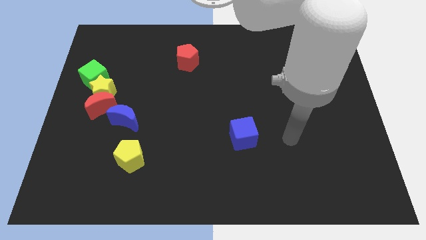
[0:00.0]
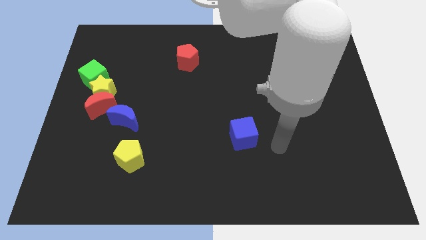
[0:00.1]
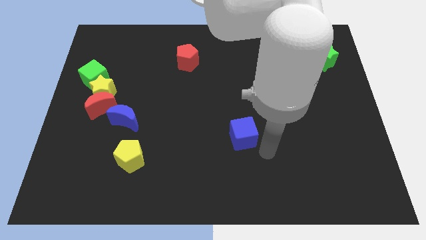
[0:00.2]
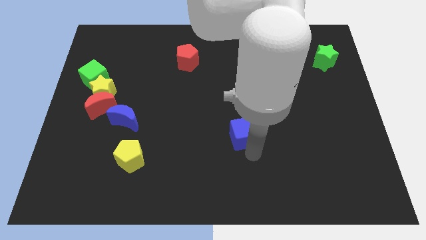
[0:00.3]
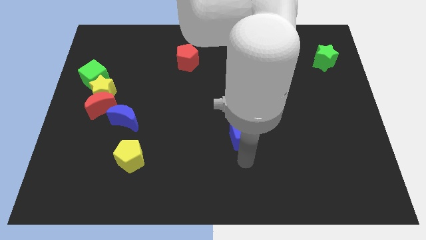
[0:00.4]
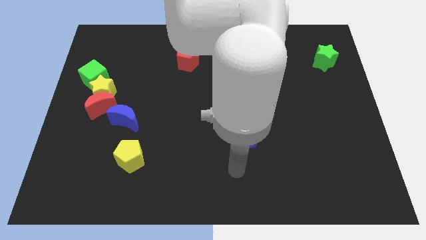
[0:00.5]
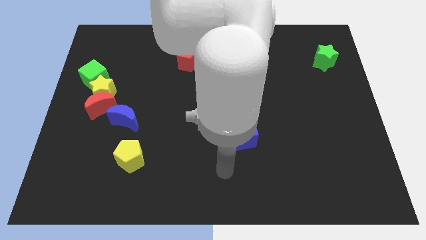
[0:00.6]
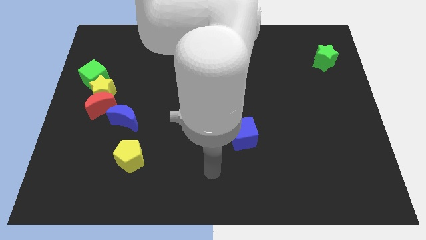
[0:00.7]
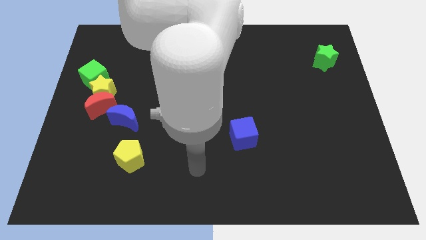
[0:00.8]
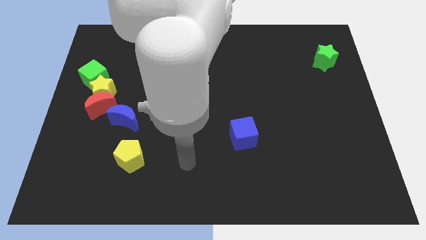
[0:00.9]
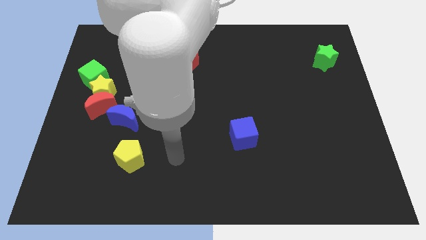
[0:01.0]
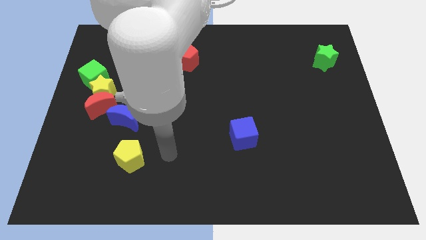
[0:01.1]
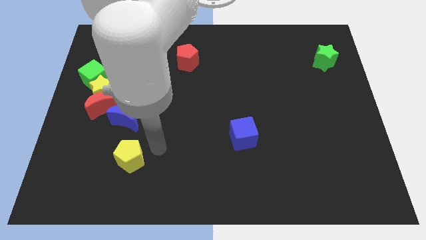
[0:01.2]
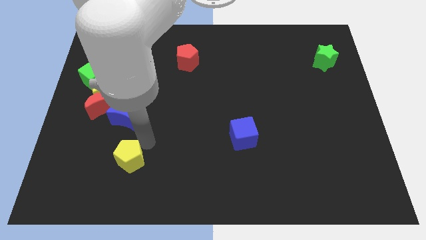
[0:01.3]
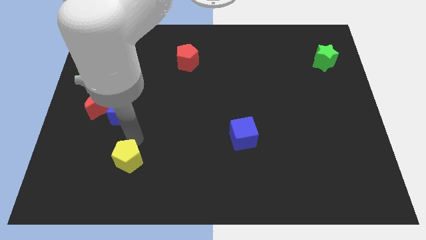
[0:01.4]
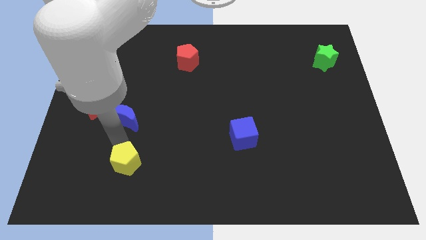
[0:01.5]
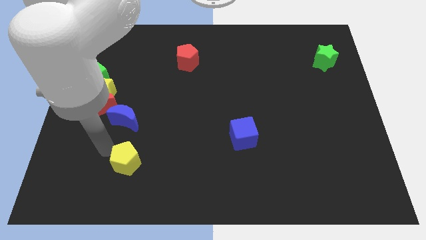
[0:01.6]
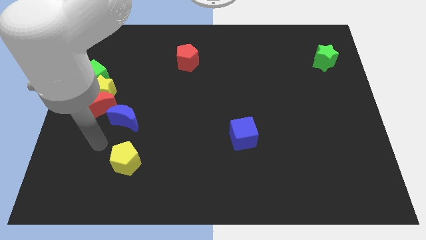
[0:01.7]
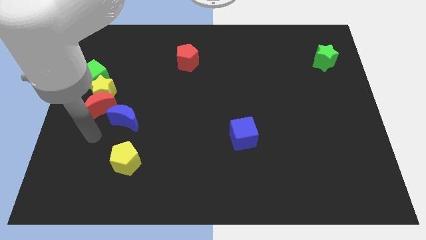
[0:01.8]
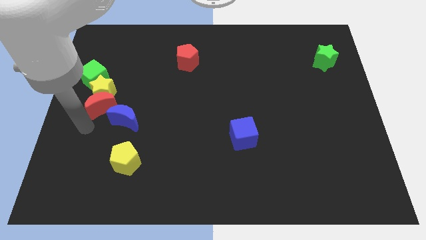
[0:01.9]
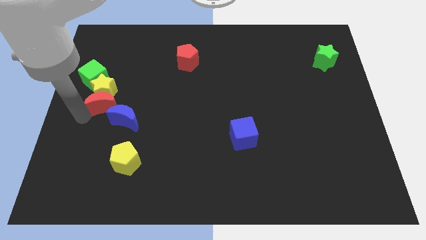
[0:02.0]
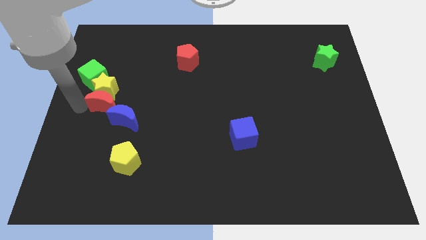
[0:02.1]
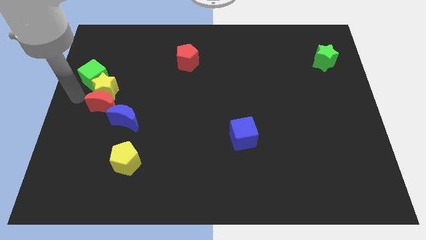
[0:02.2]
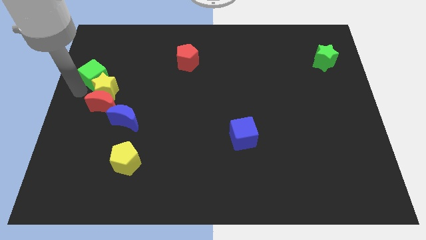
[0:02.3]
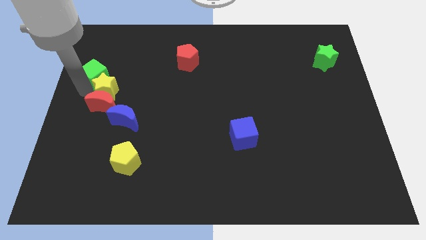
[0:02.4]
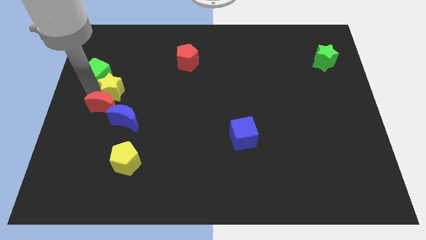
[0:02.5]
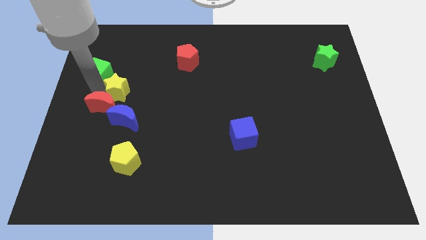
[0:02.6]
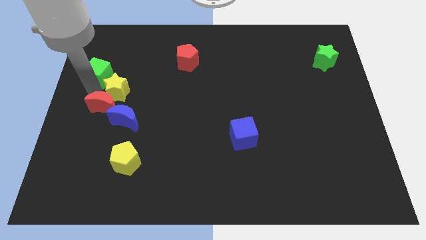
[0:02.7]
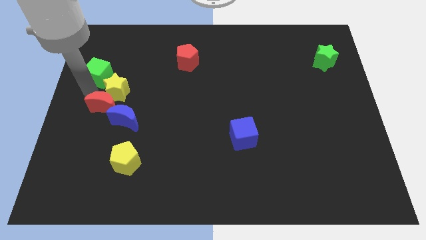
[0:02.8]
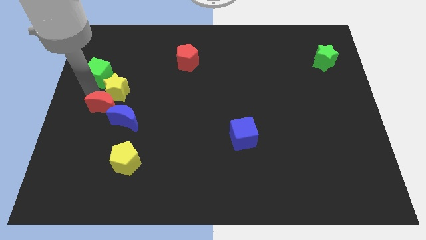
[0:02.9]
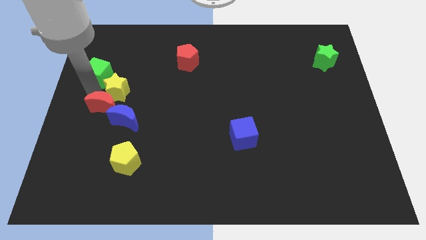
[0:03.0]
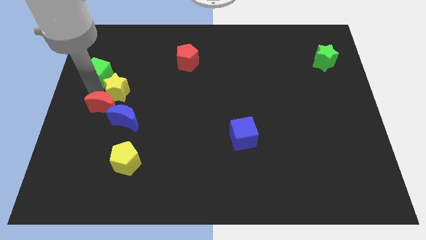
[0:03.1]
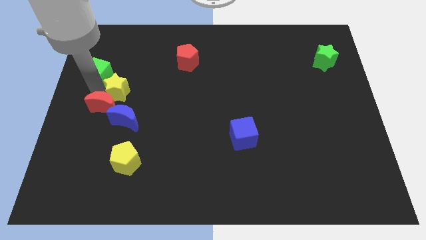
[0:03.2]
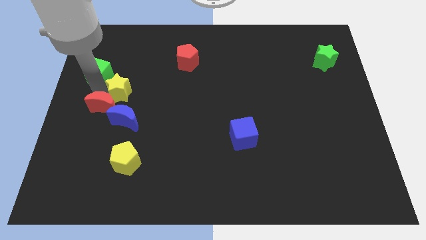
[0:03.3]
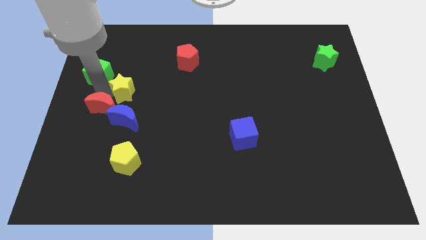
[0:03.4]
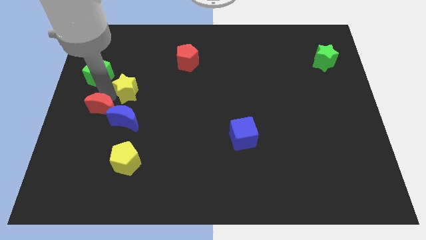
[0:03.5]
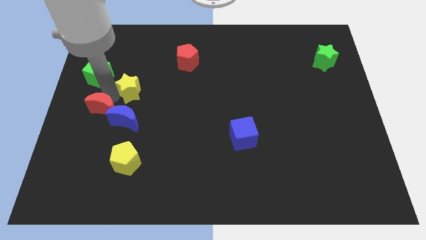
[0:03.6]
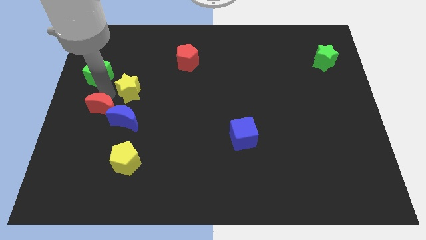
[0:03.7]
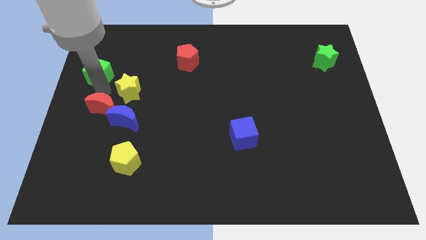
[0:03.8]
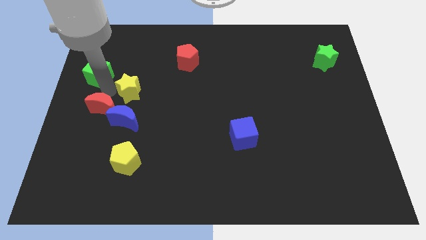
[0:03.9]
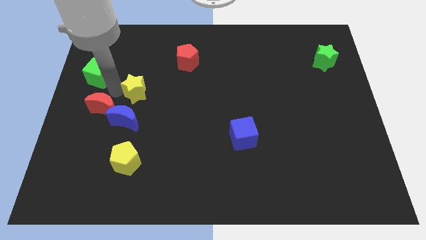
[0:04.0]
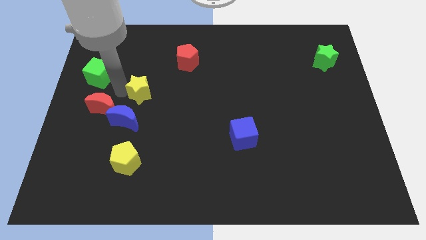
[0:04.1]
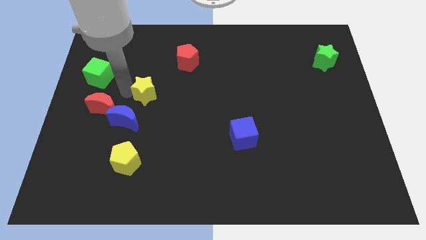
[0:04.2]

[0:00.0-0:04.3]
separate the yellow star from the red moon and green cube

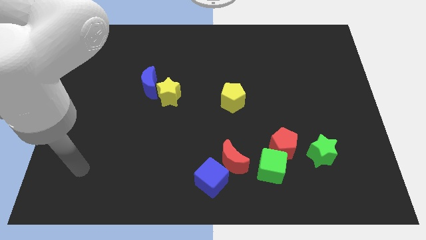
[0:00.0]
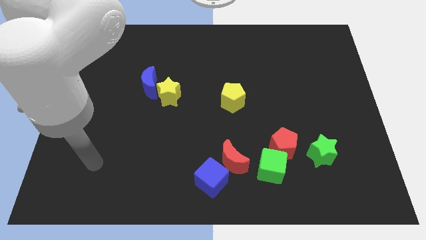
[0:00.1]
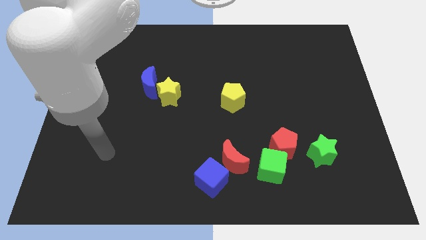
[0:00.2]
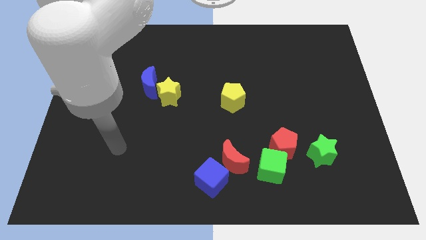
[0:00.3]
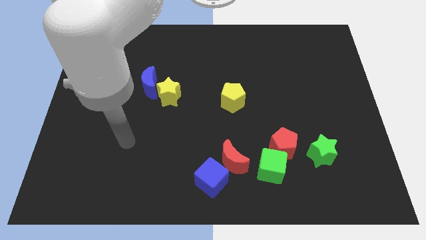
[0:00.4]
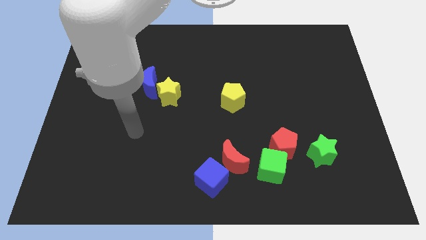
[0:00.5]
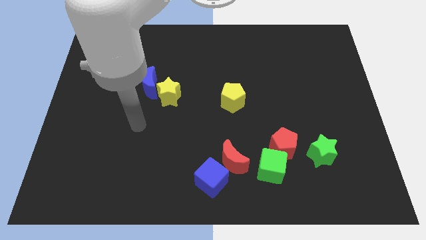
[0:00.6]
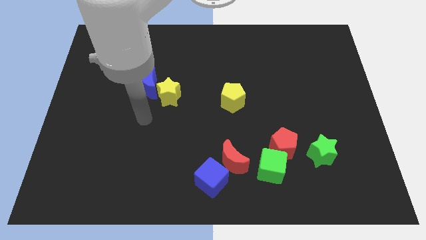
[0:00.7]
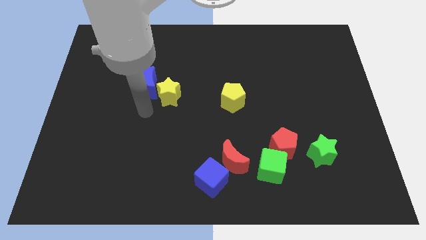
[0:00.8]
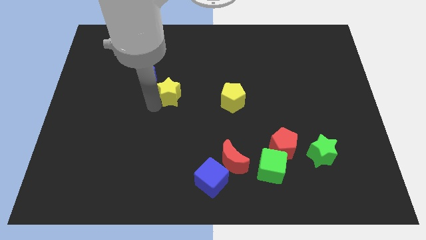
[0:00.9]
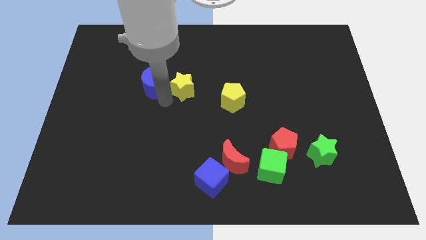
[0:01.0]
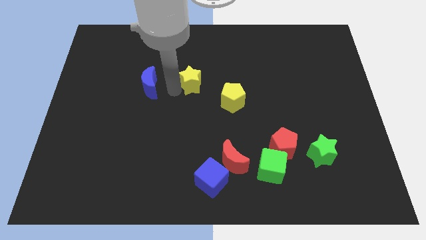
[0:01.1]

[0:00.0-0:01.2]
move the blue moon away from the yellow star

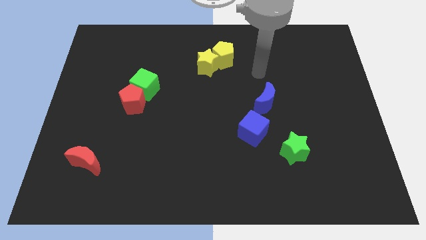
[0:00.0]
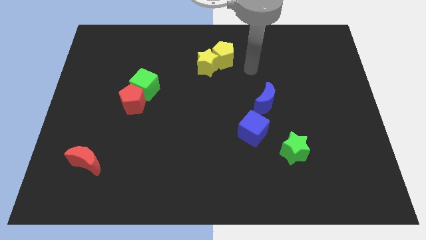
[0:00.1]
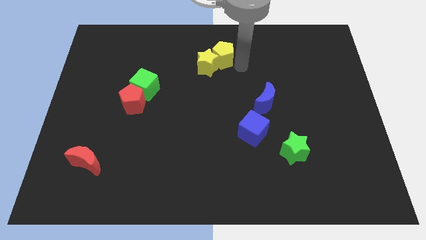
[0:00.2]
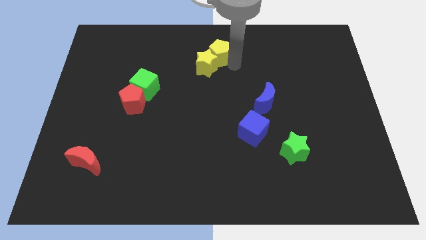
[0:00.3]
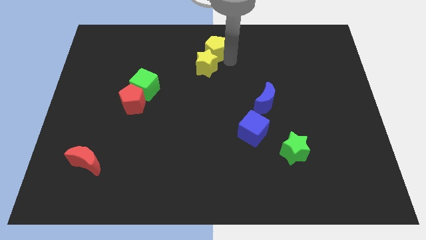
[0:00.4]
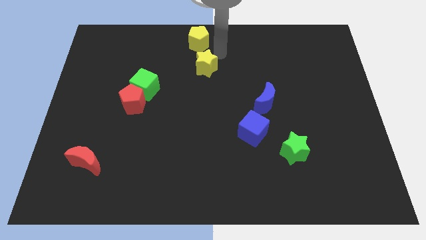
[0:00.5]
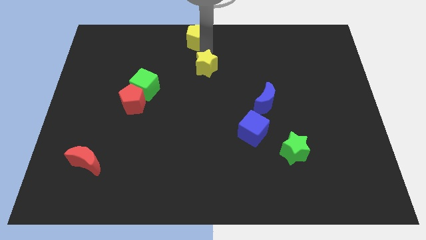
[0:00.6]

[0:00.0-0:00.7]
pull the yellow star apart from the yellow pentagon

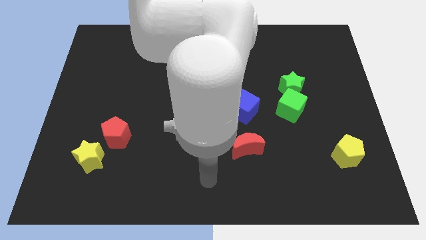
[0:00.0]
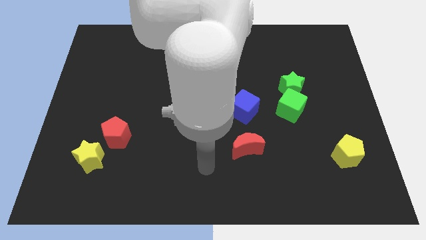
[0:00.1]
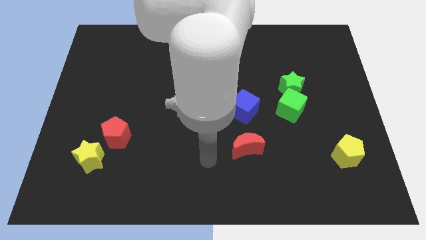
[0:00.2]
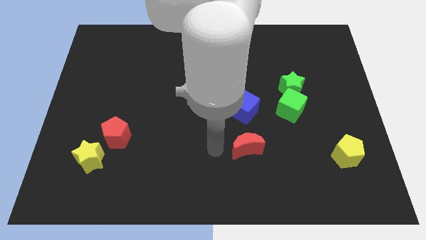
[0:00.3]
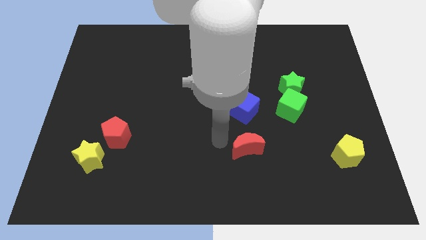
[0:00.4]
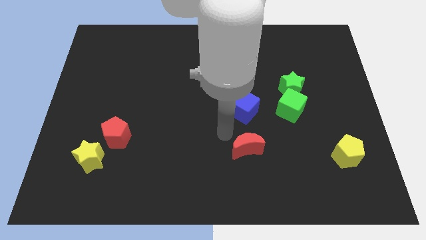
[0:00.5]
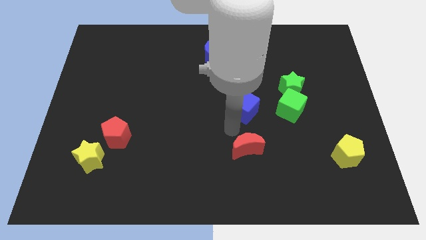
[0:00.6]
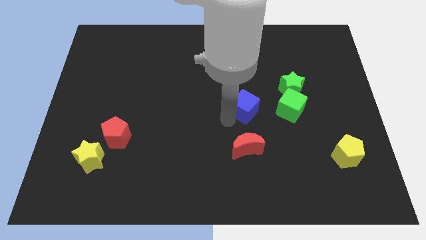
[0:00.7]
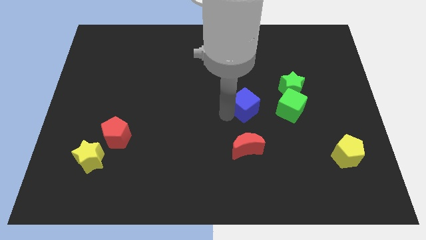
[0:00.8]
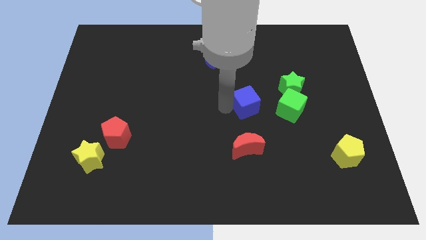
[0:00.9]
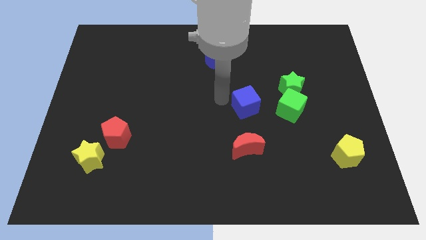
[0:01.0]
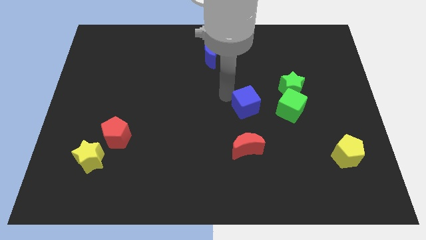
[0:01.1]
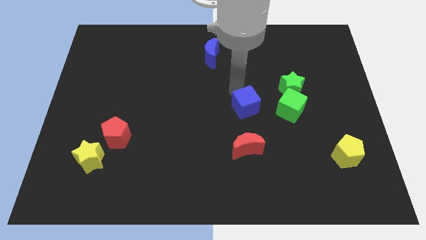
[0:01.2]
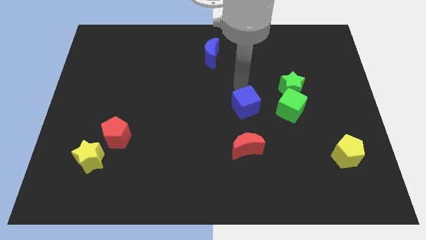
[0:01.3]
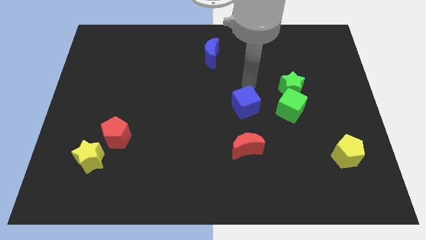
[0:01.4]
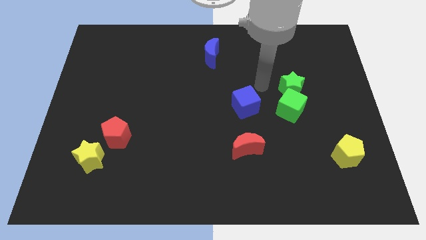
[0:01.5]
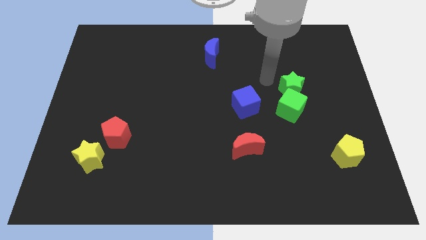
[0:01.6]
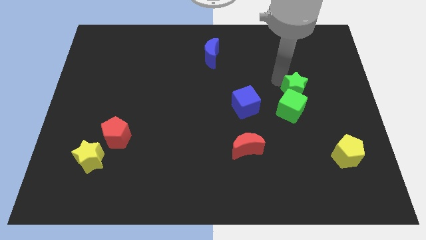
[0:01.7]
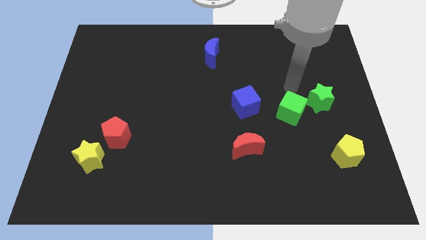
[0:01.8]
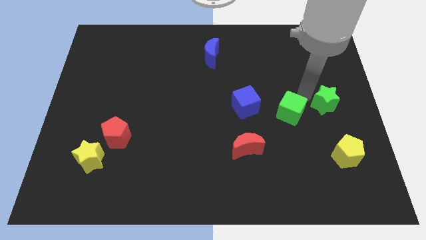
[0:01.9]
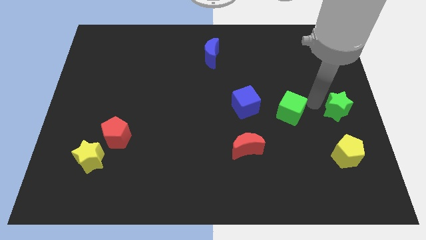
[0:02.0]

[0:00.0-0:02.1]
move the green cube away from the green star

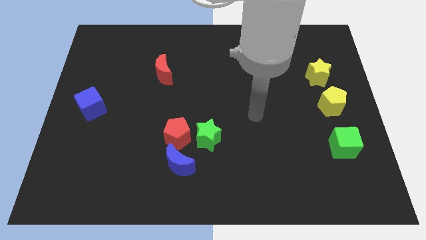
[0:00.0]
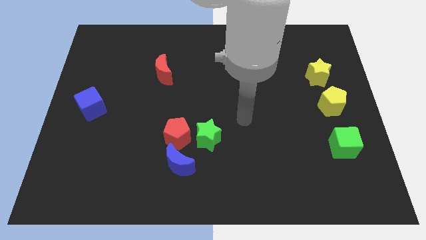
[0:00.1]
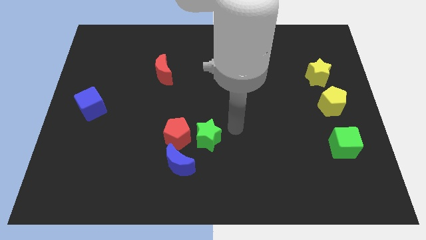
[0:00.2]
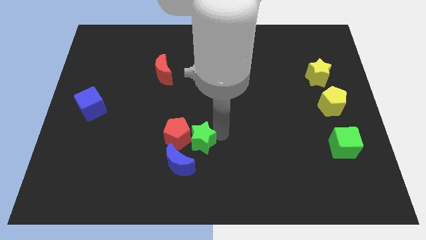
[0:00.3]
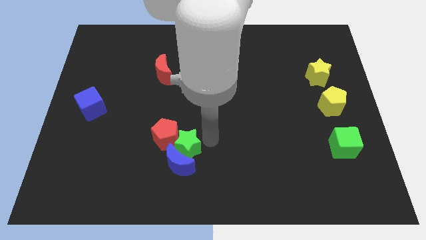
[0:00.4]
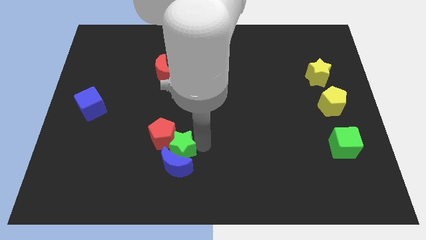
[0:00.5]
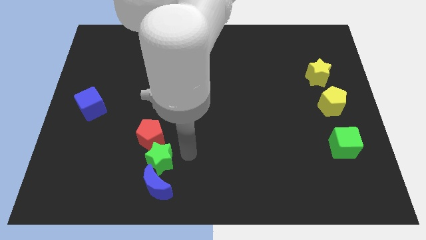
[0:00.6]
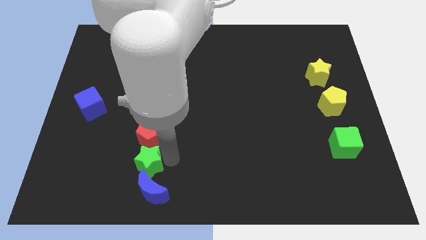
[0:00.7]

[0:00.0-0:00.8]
separate the red pentagon from the green star and blue moon
